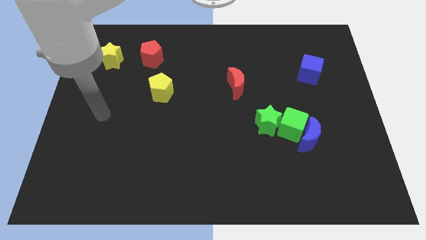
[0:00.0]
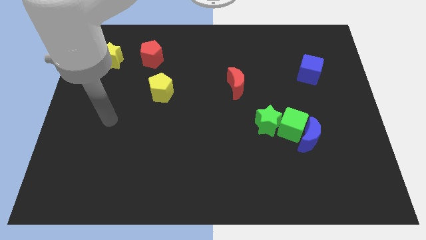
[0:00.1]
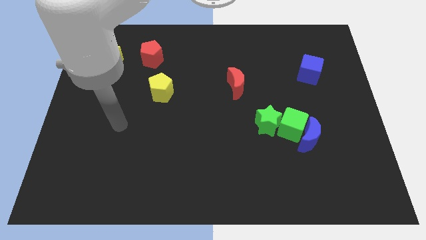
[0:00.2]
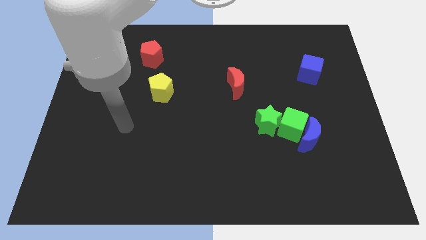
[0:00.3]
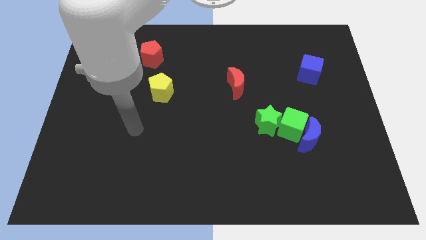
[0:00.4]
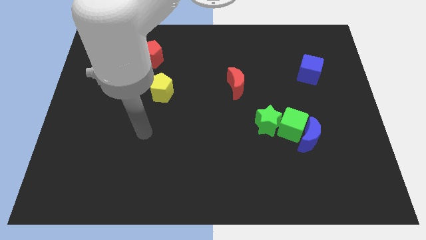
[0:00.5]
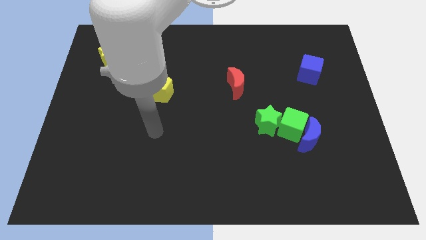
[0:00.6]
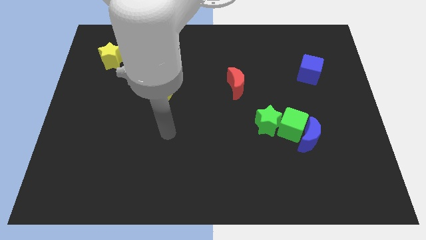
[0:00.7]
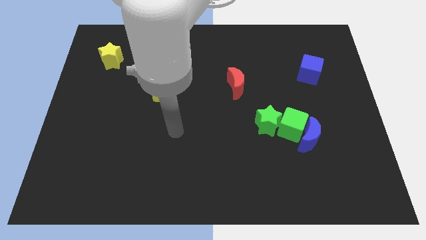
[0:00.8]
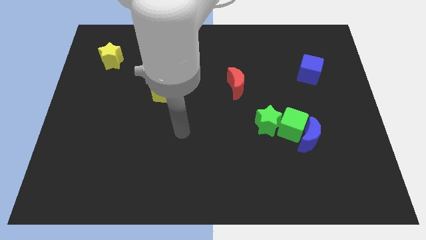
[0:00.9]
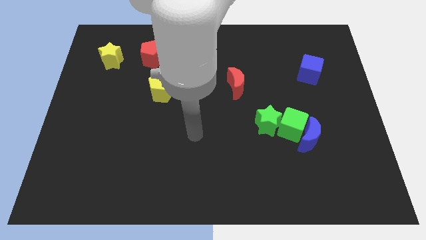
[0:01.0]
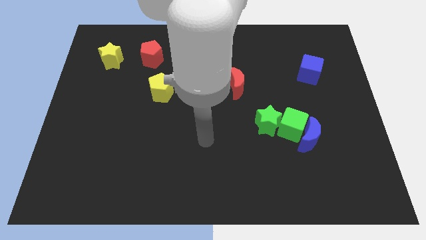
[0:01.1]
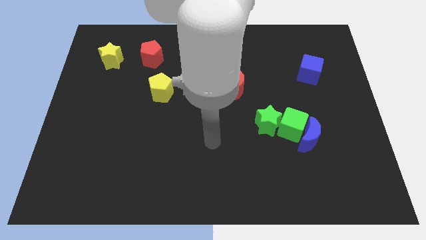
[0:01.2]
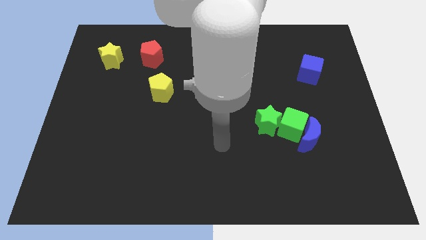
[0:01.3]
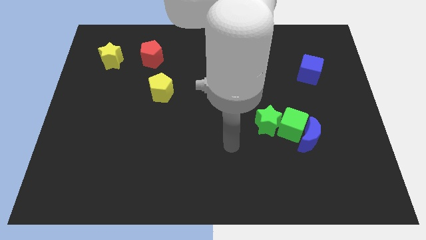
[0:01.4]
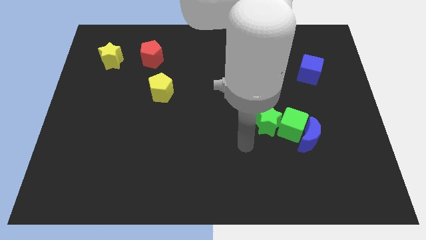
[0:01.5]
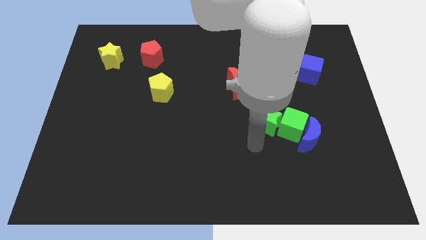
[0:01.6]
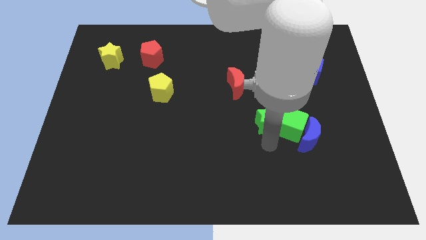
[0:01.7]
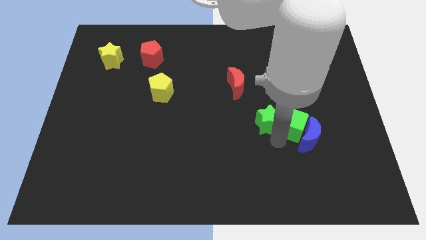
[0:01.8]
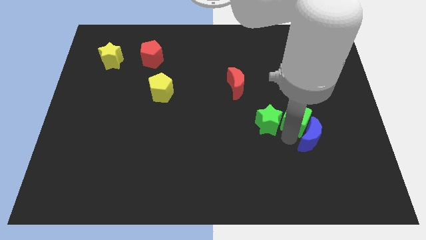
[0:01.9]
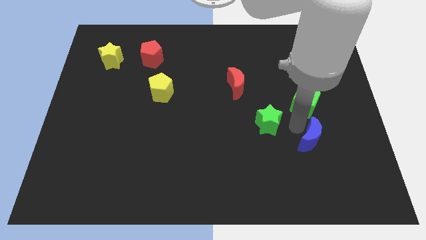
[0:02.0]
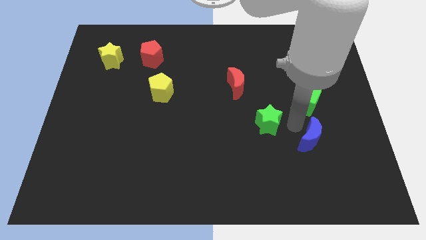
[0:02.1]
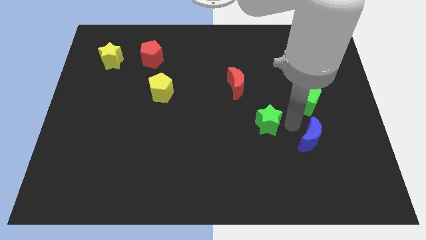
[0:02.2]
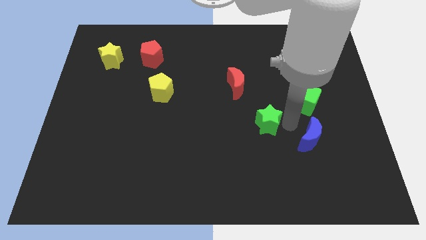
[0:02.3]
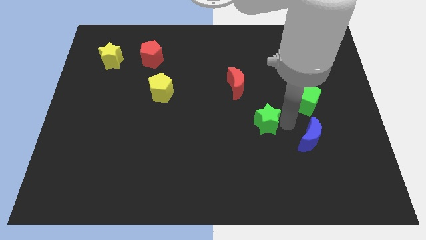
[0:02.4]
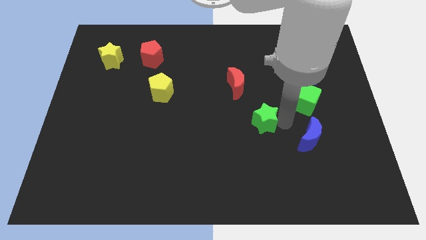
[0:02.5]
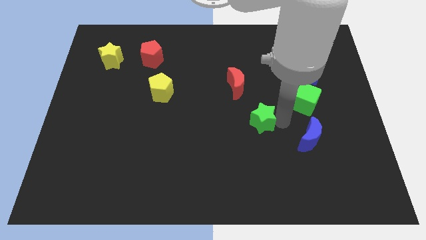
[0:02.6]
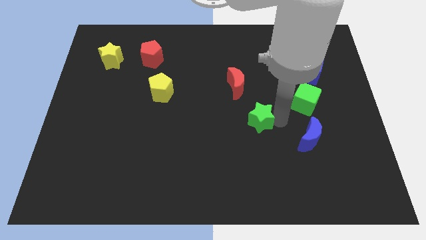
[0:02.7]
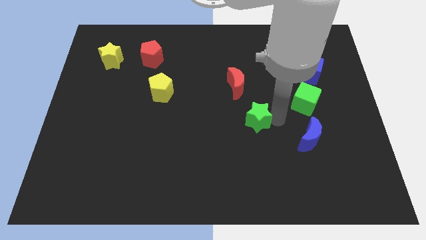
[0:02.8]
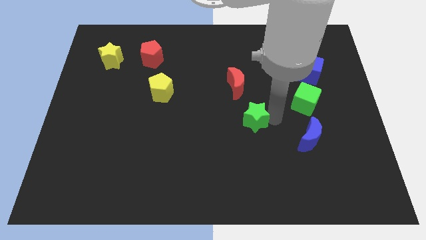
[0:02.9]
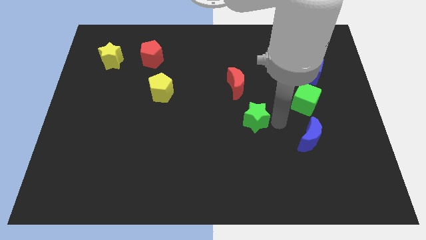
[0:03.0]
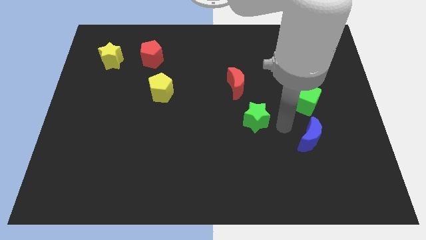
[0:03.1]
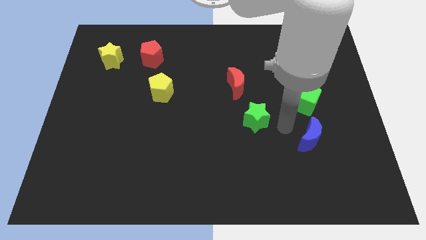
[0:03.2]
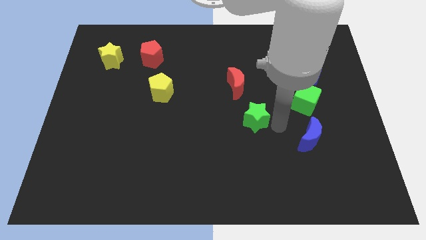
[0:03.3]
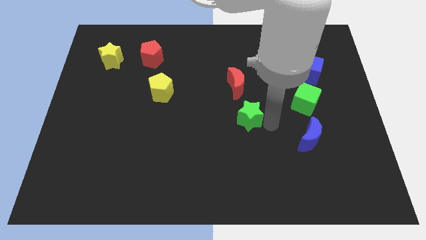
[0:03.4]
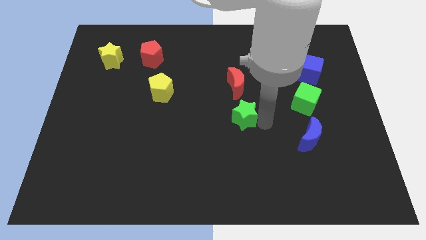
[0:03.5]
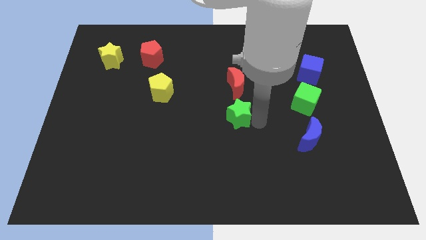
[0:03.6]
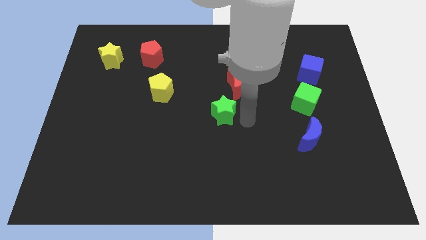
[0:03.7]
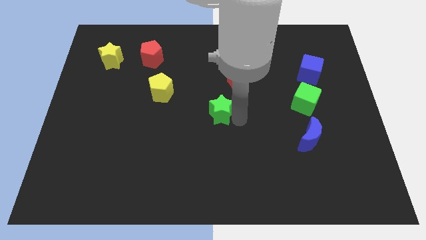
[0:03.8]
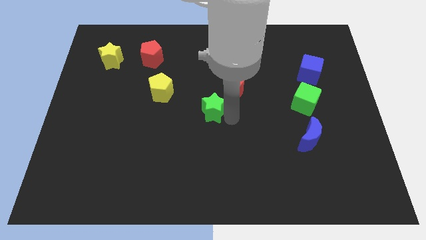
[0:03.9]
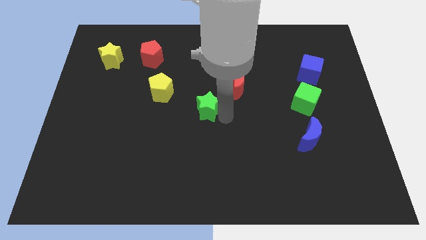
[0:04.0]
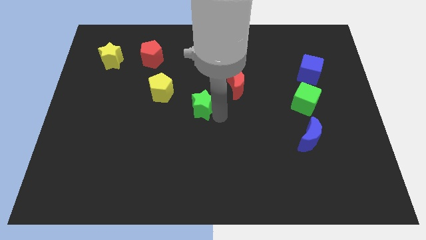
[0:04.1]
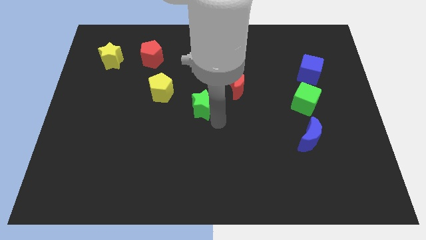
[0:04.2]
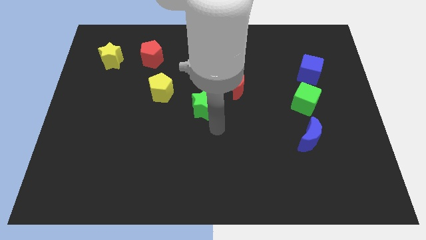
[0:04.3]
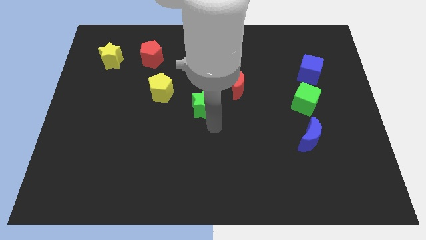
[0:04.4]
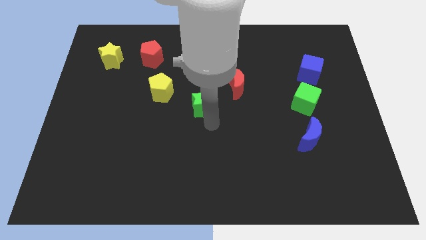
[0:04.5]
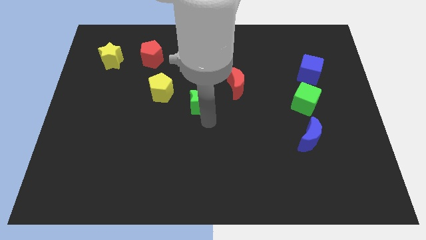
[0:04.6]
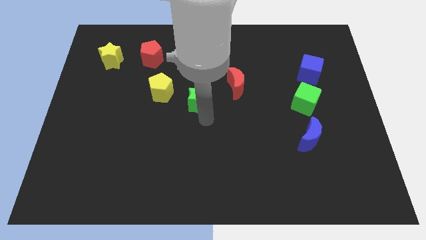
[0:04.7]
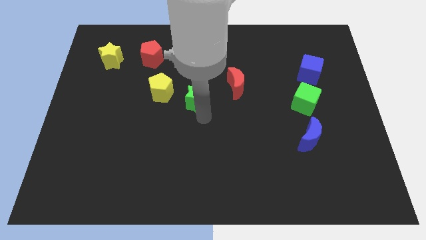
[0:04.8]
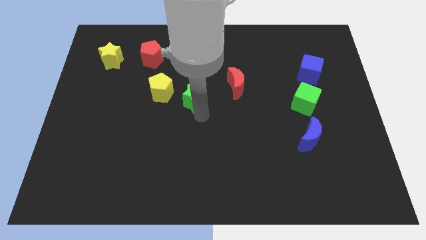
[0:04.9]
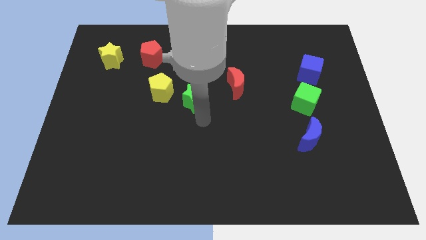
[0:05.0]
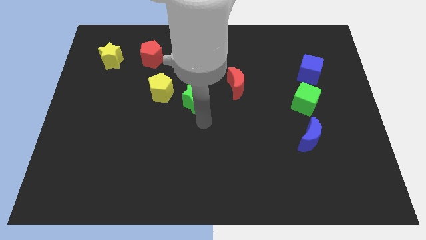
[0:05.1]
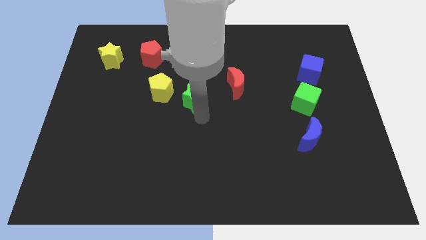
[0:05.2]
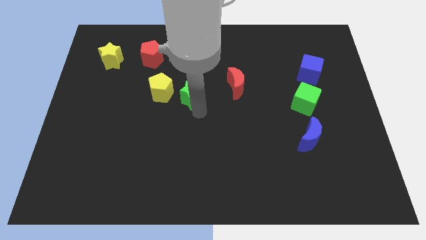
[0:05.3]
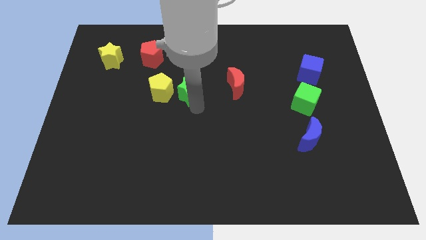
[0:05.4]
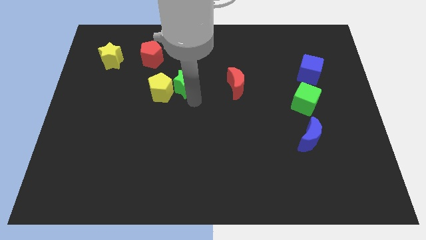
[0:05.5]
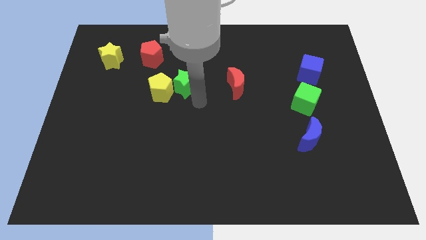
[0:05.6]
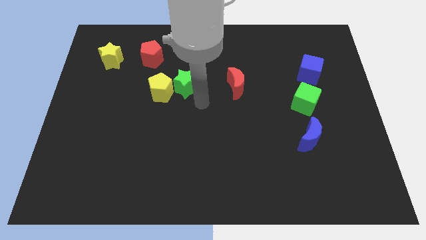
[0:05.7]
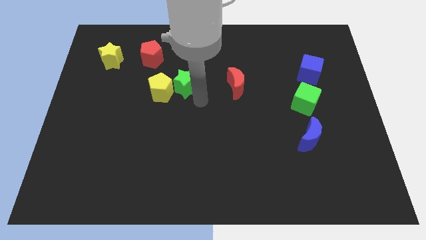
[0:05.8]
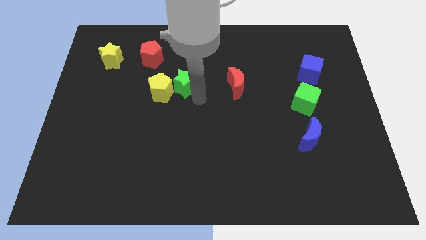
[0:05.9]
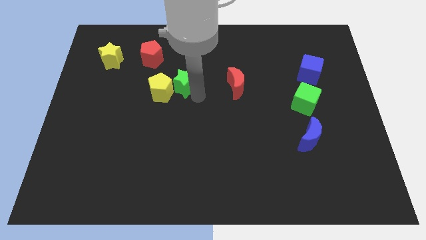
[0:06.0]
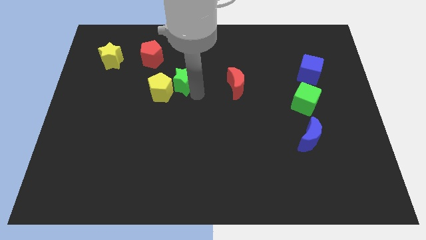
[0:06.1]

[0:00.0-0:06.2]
push the green star to the bottom right of the red pentagon

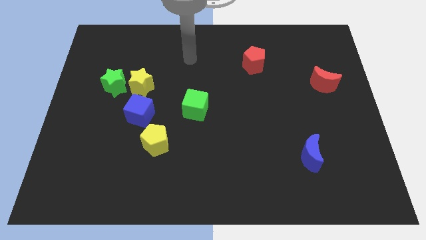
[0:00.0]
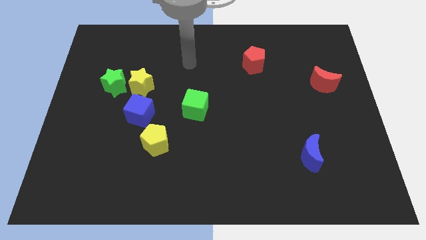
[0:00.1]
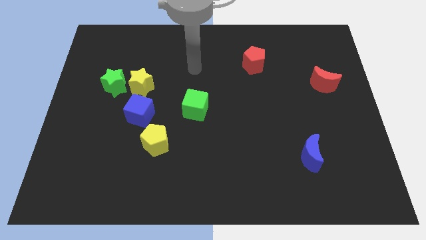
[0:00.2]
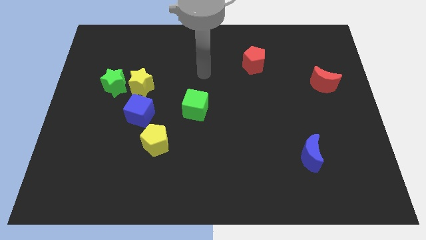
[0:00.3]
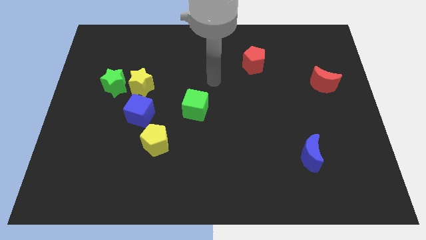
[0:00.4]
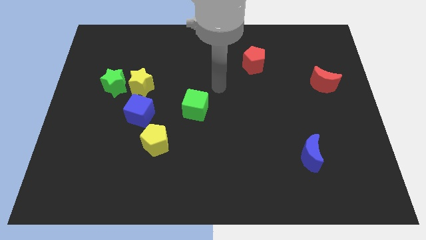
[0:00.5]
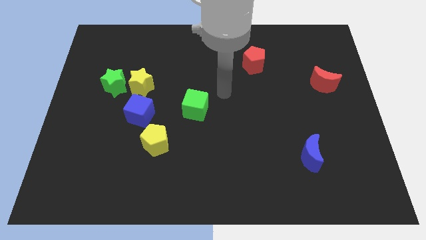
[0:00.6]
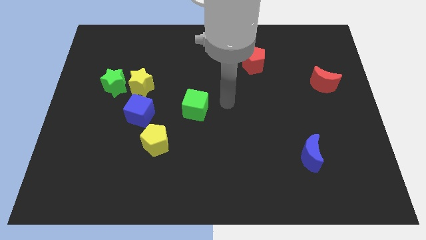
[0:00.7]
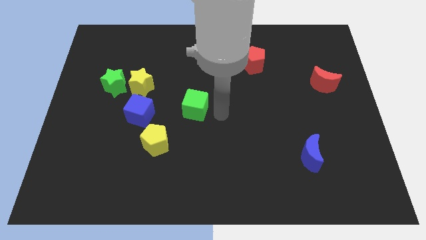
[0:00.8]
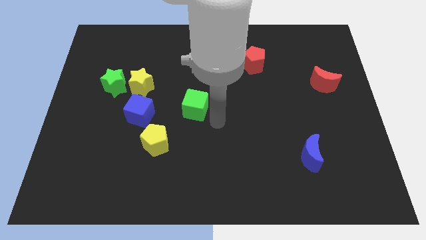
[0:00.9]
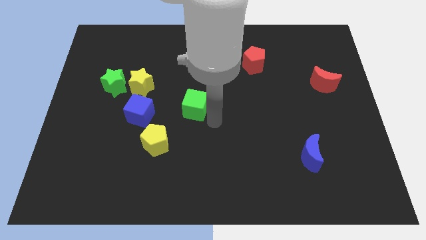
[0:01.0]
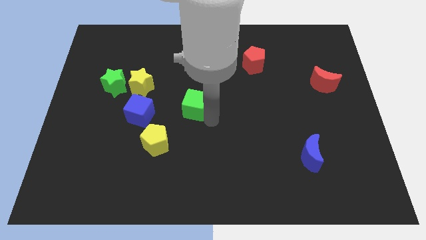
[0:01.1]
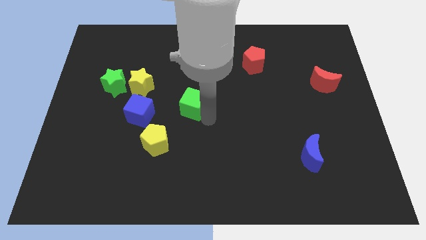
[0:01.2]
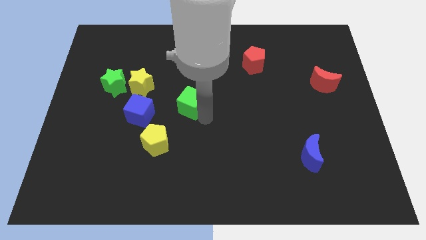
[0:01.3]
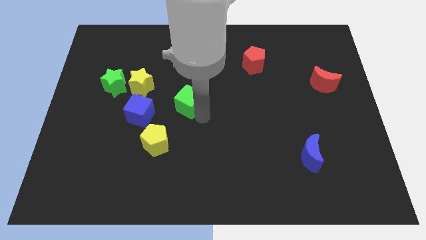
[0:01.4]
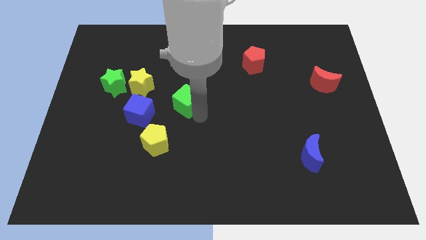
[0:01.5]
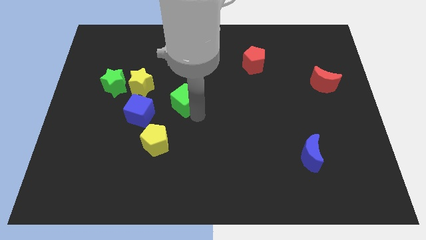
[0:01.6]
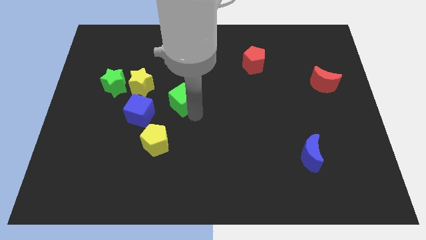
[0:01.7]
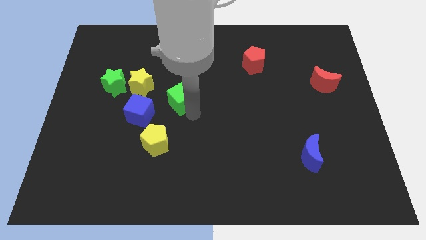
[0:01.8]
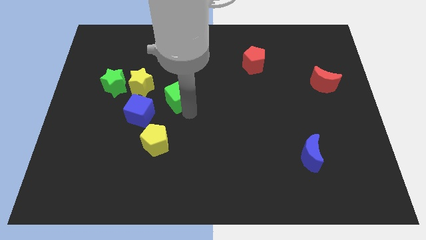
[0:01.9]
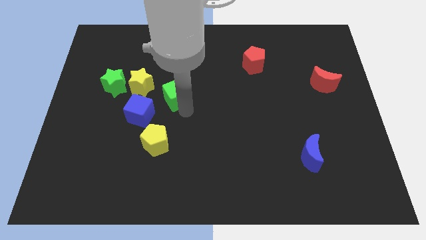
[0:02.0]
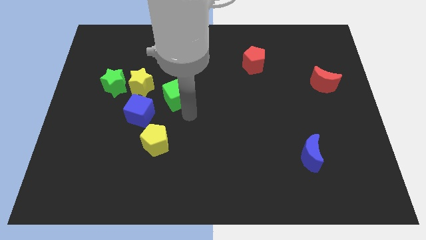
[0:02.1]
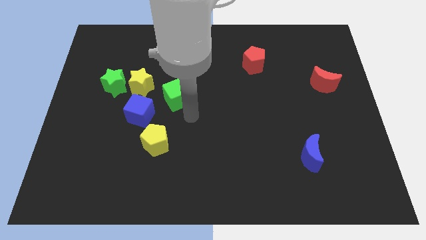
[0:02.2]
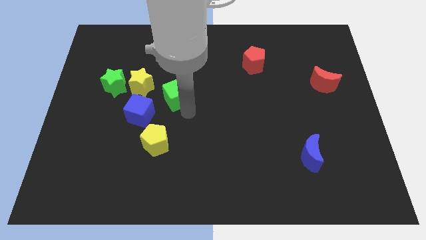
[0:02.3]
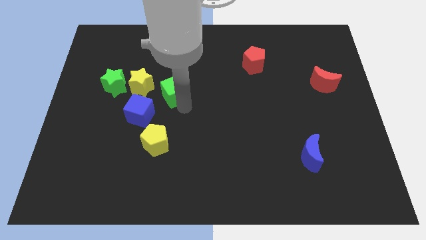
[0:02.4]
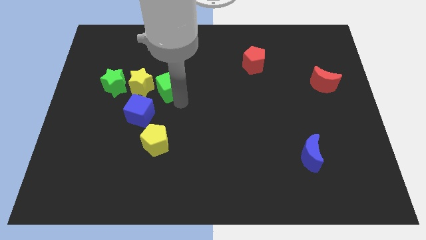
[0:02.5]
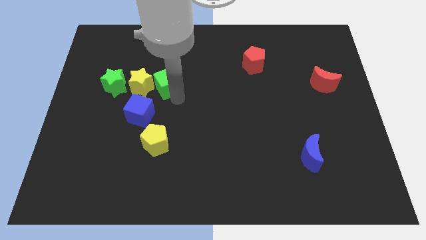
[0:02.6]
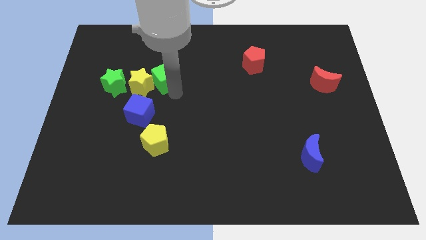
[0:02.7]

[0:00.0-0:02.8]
slide the green cube to the top of the blue cube
